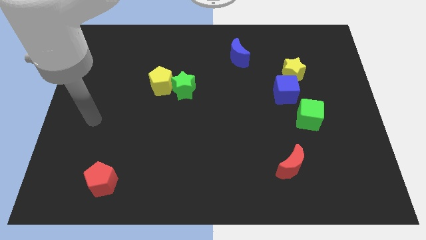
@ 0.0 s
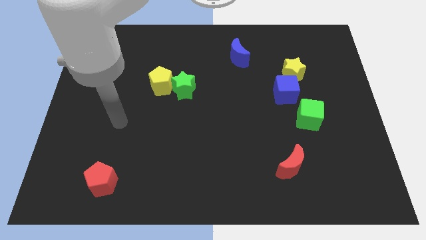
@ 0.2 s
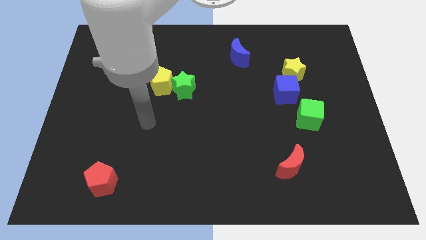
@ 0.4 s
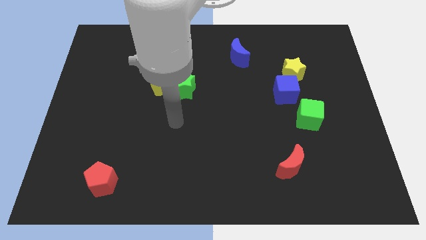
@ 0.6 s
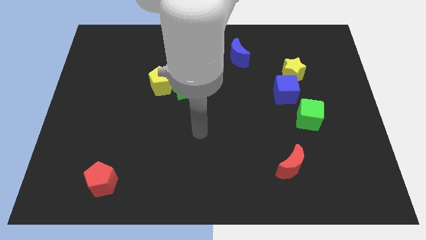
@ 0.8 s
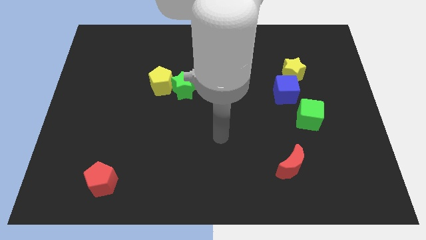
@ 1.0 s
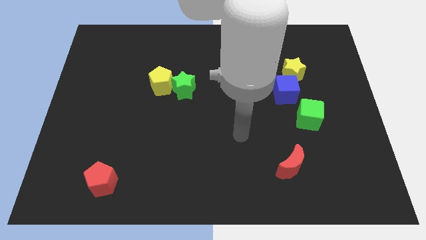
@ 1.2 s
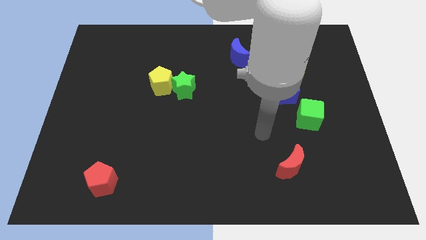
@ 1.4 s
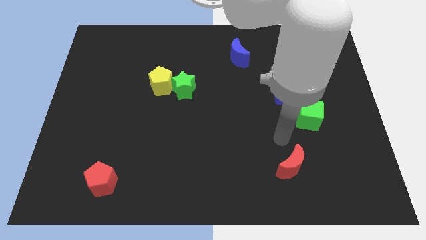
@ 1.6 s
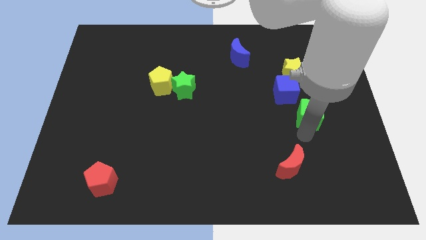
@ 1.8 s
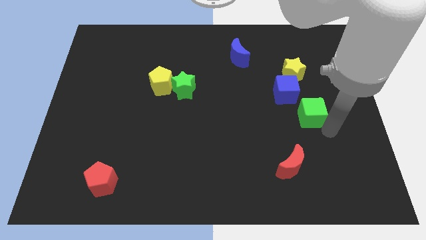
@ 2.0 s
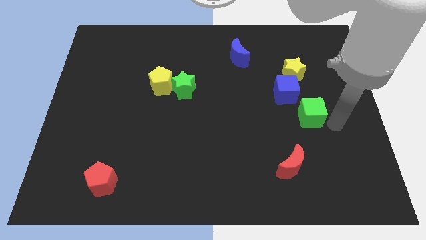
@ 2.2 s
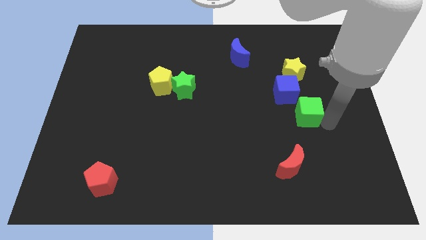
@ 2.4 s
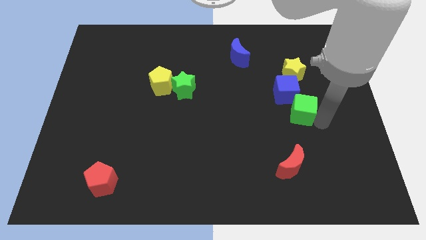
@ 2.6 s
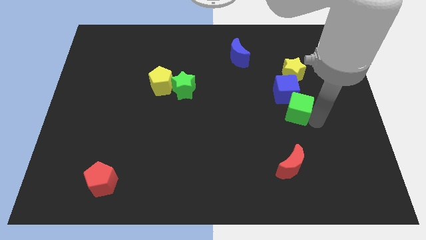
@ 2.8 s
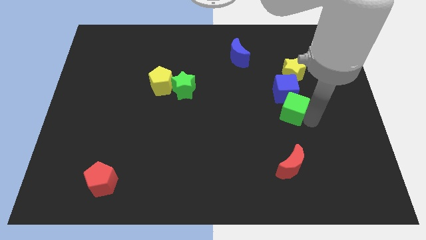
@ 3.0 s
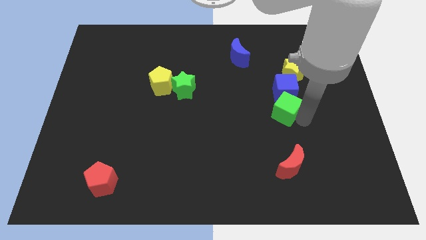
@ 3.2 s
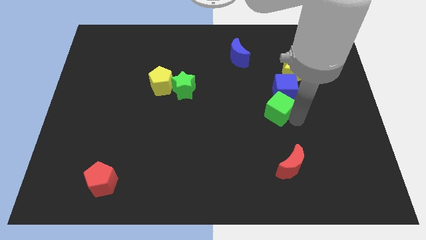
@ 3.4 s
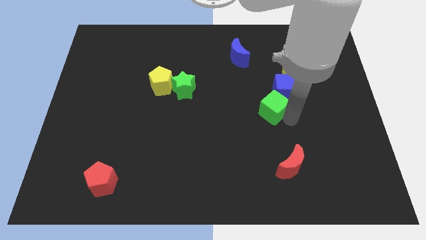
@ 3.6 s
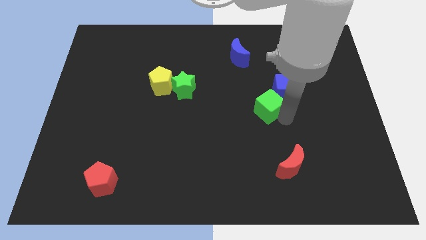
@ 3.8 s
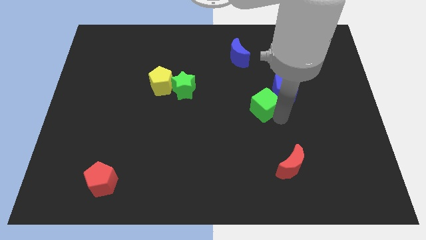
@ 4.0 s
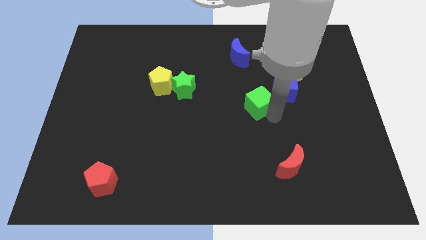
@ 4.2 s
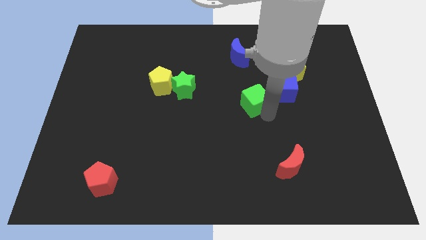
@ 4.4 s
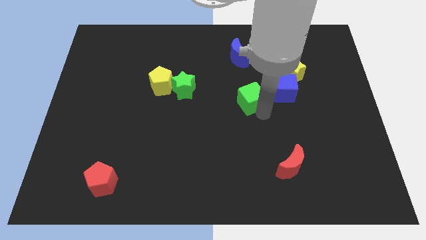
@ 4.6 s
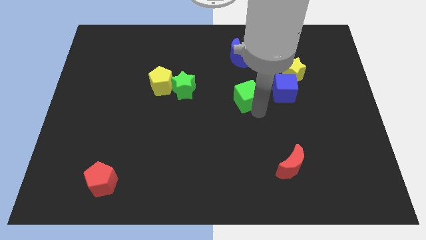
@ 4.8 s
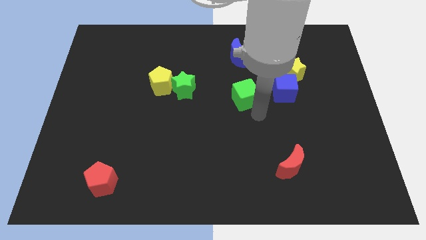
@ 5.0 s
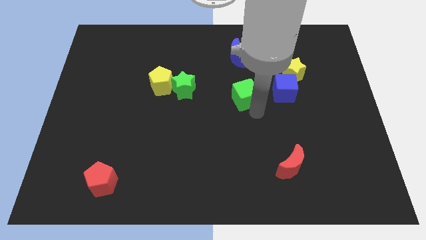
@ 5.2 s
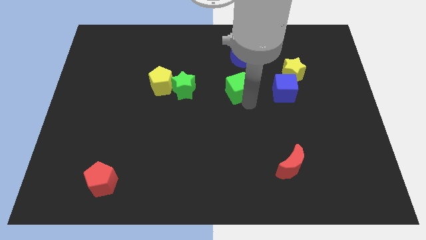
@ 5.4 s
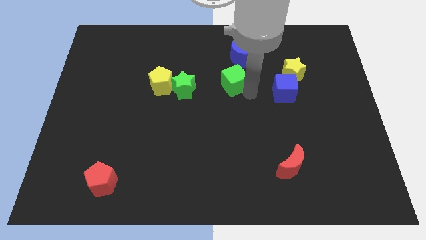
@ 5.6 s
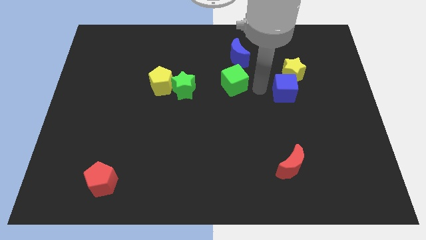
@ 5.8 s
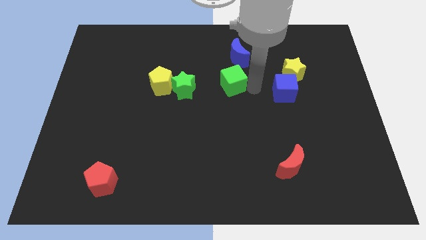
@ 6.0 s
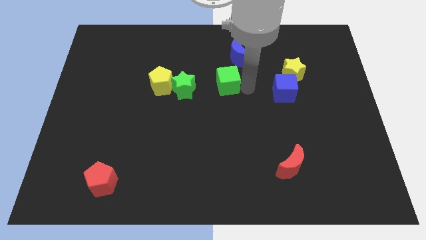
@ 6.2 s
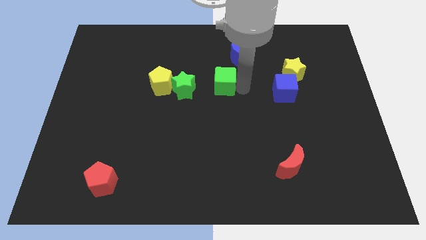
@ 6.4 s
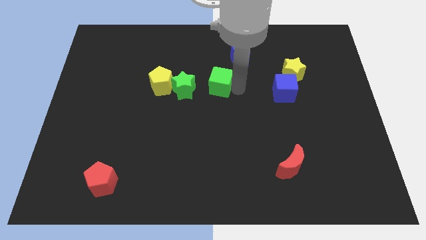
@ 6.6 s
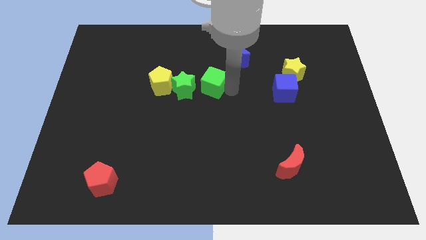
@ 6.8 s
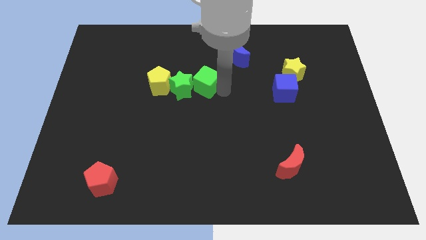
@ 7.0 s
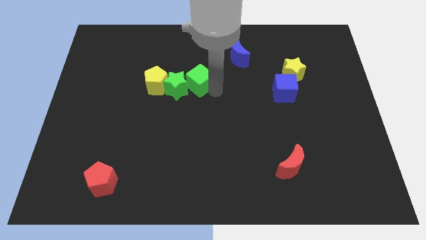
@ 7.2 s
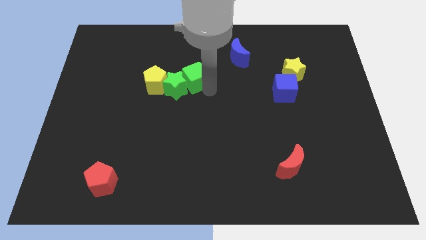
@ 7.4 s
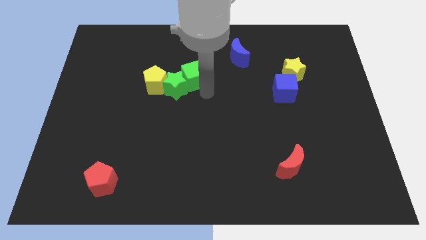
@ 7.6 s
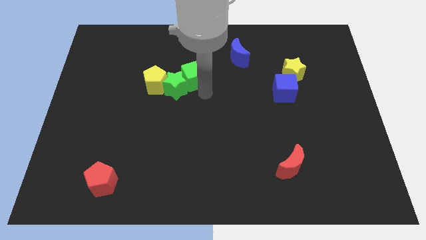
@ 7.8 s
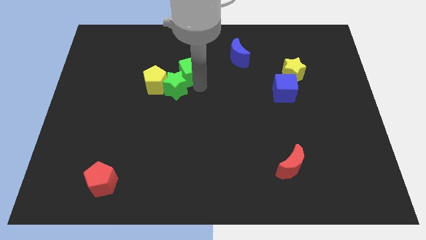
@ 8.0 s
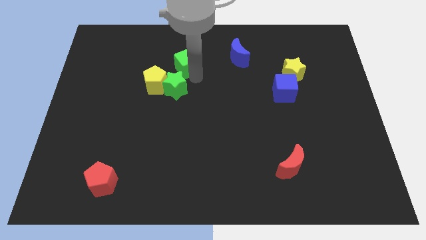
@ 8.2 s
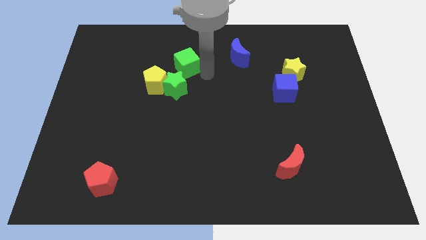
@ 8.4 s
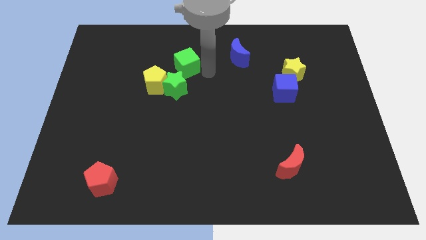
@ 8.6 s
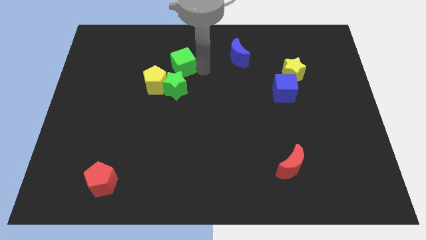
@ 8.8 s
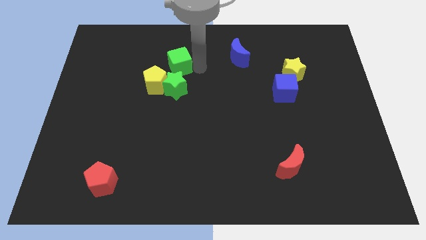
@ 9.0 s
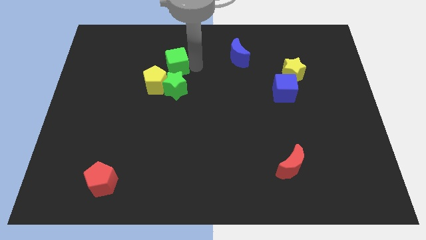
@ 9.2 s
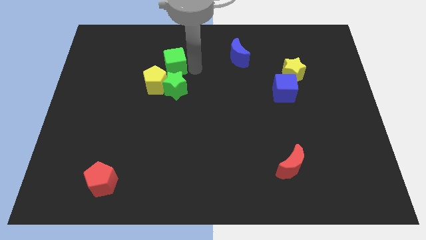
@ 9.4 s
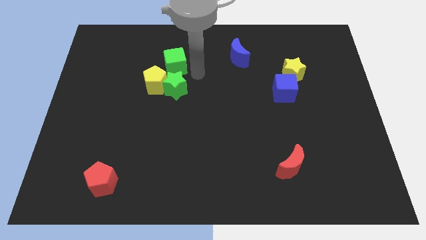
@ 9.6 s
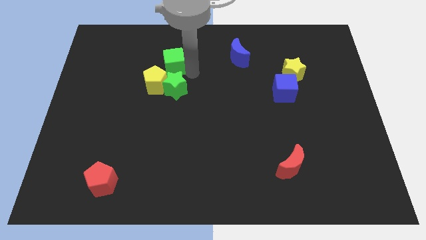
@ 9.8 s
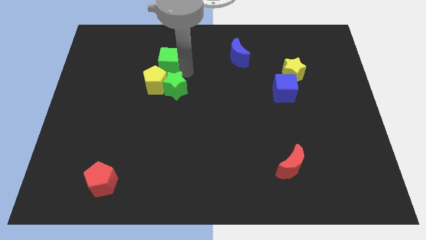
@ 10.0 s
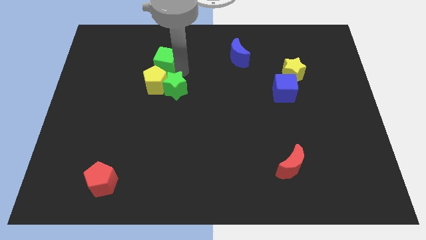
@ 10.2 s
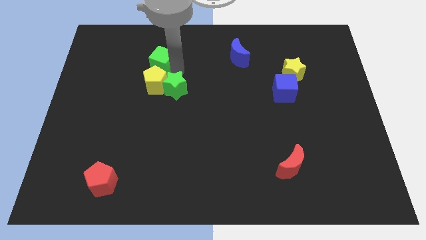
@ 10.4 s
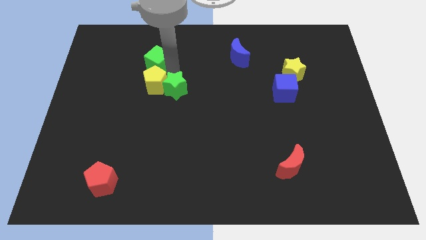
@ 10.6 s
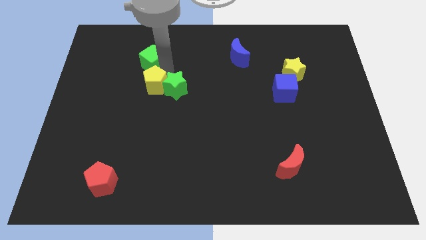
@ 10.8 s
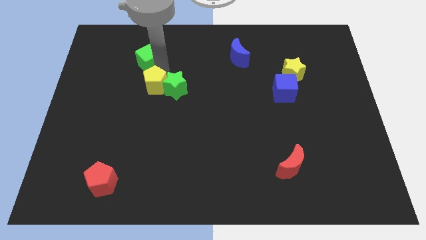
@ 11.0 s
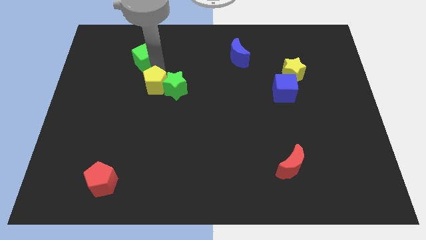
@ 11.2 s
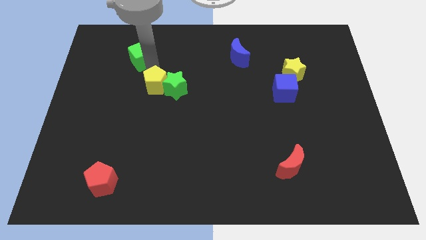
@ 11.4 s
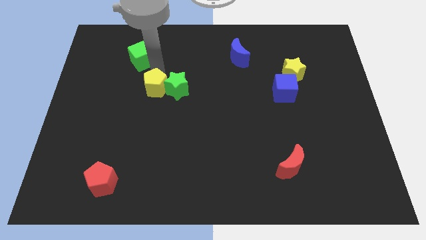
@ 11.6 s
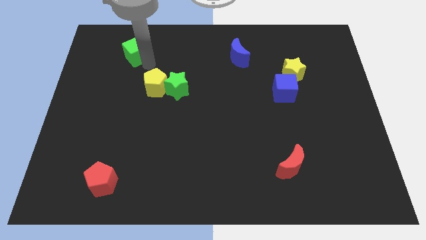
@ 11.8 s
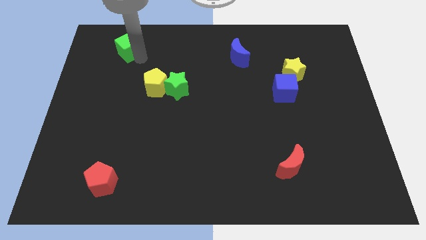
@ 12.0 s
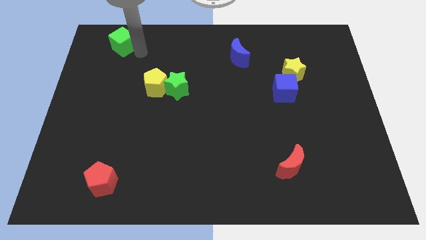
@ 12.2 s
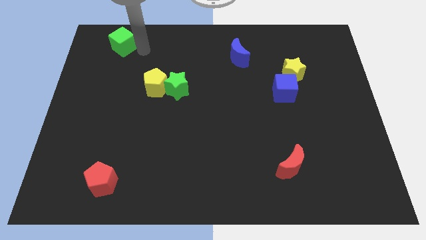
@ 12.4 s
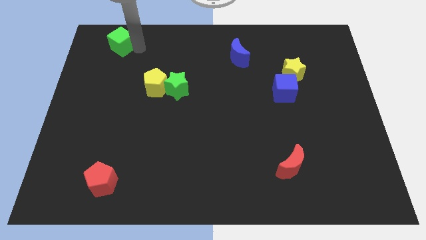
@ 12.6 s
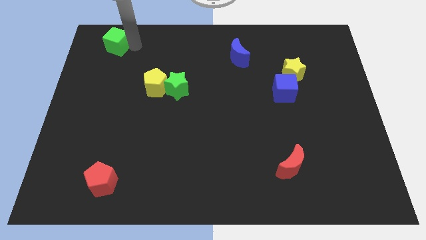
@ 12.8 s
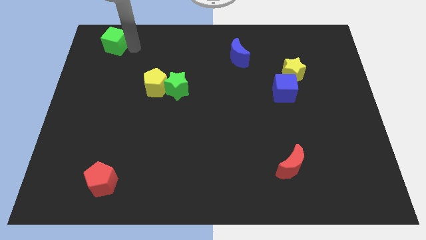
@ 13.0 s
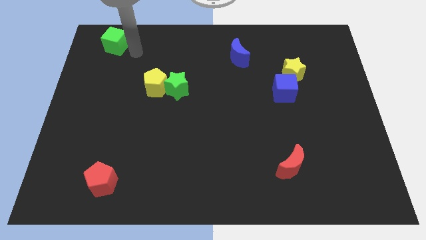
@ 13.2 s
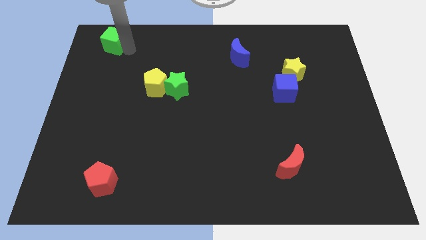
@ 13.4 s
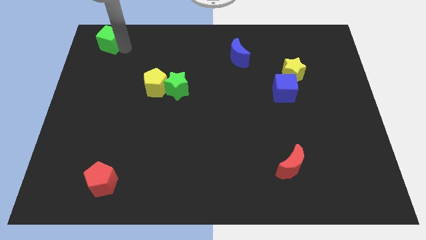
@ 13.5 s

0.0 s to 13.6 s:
move the green cube to the top left of the board
